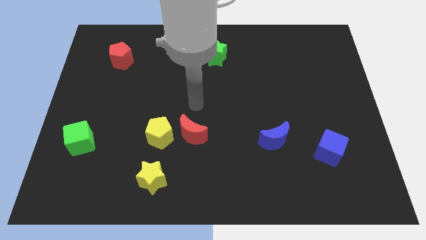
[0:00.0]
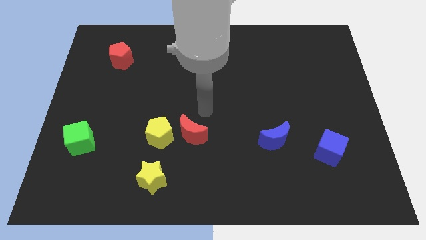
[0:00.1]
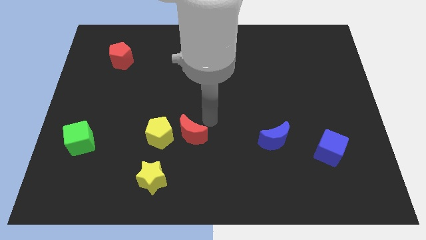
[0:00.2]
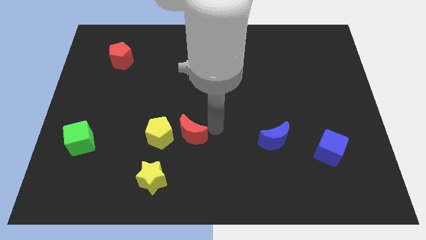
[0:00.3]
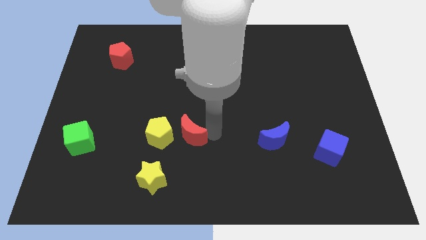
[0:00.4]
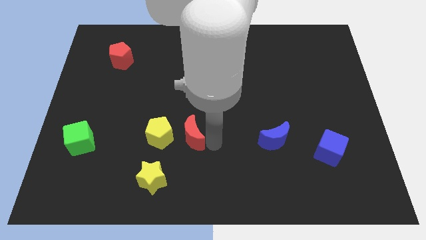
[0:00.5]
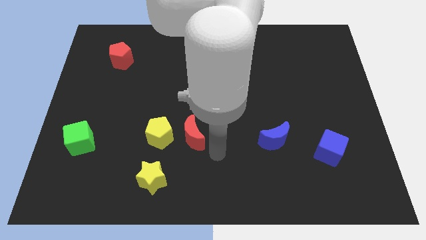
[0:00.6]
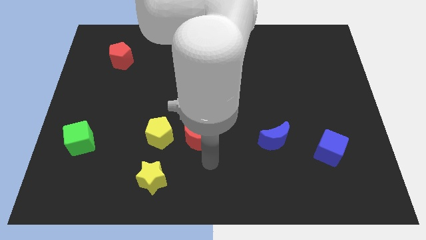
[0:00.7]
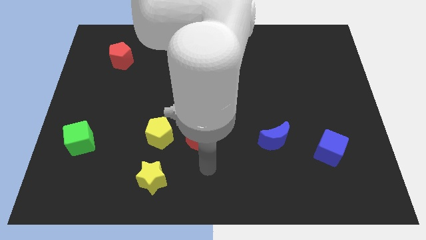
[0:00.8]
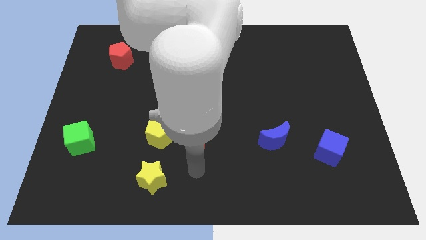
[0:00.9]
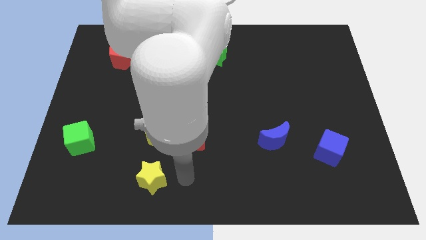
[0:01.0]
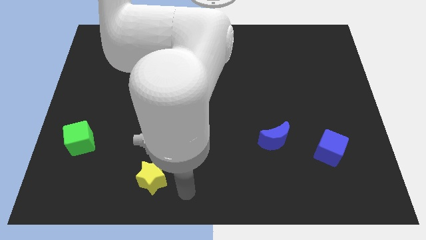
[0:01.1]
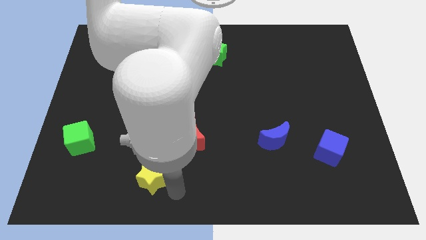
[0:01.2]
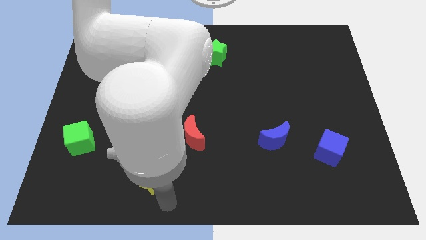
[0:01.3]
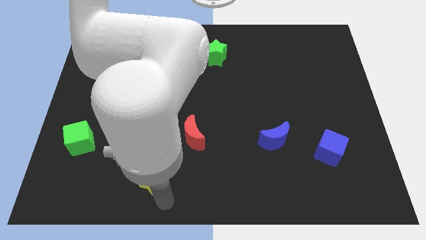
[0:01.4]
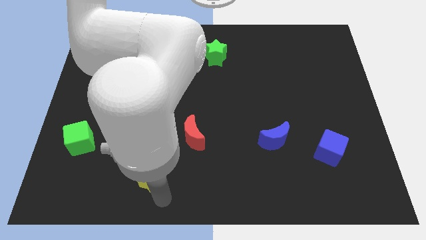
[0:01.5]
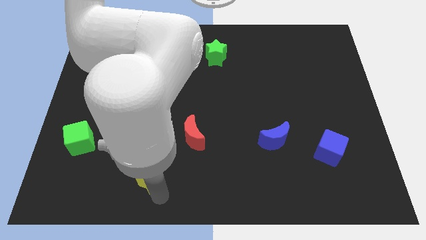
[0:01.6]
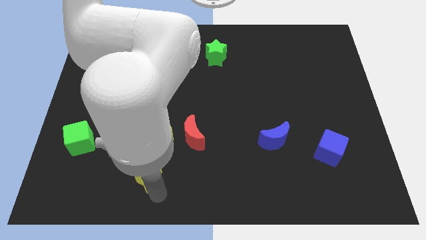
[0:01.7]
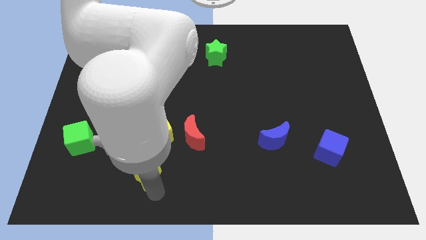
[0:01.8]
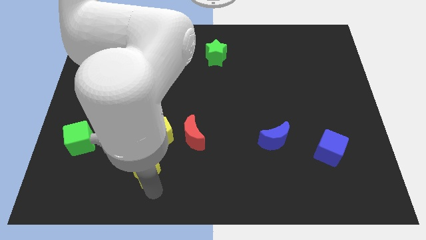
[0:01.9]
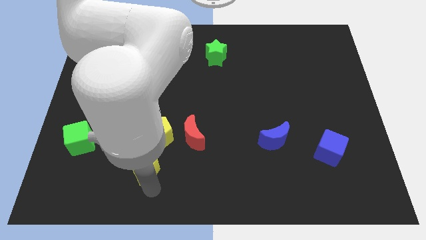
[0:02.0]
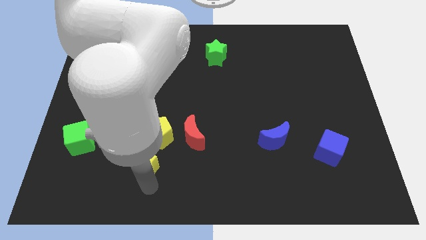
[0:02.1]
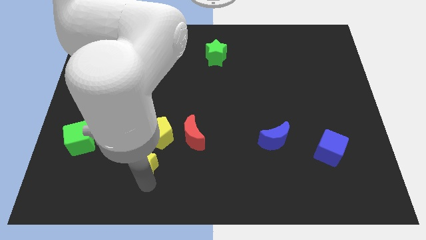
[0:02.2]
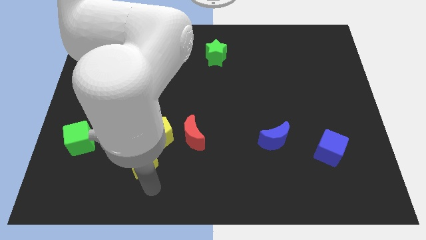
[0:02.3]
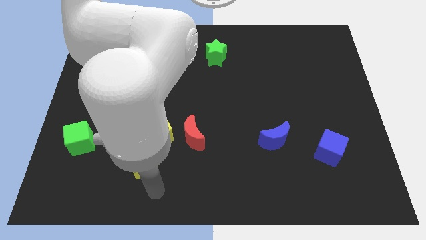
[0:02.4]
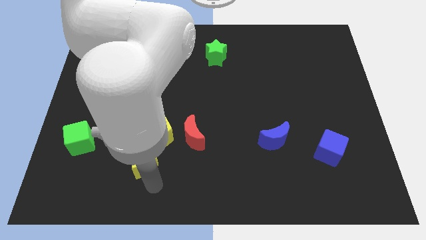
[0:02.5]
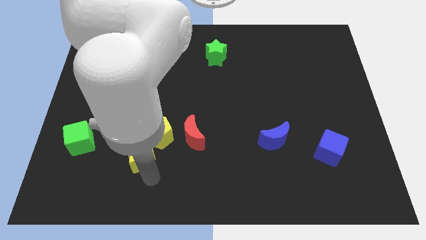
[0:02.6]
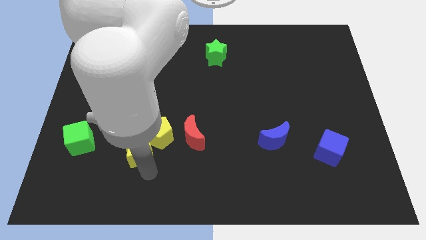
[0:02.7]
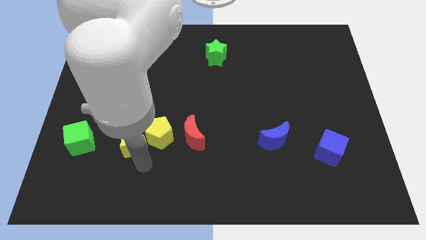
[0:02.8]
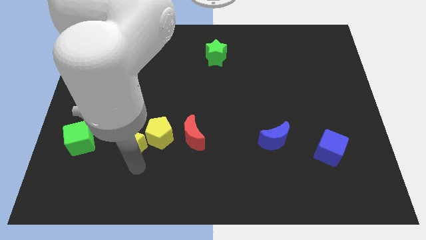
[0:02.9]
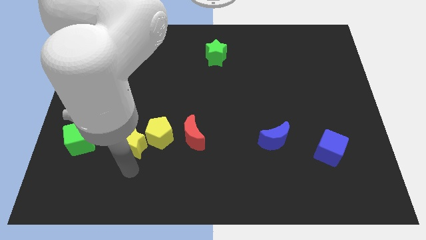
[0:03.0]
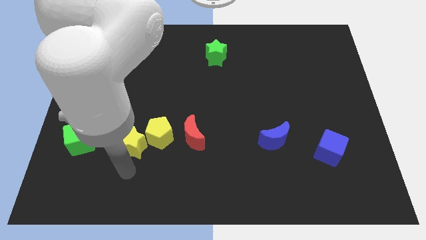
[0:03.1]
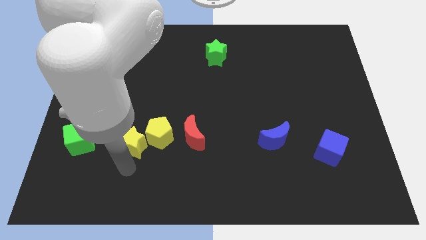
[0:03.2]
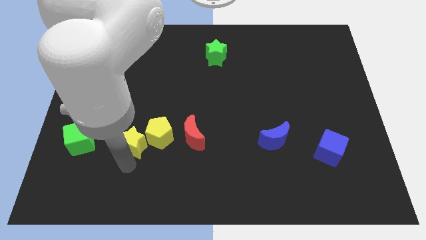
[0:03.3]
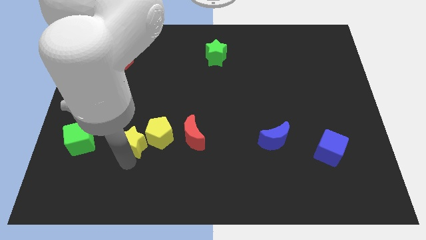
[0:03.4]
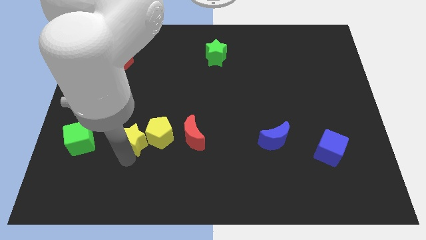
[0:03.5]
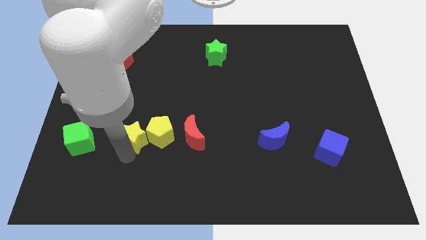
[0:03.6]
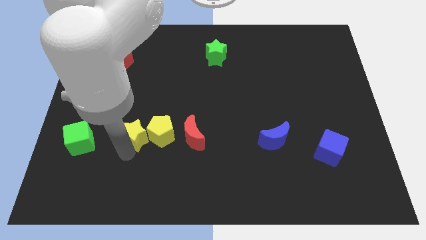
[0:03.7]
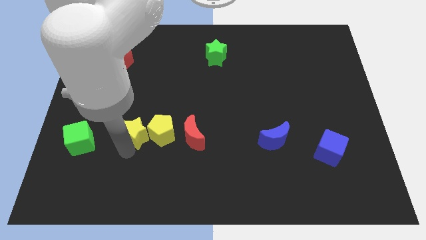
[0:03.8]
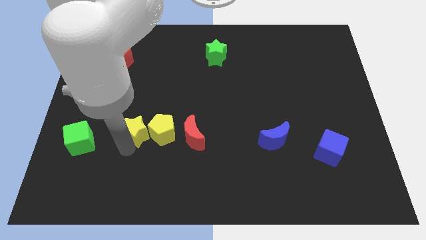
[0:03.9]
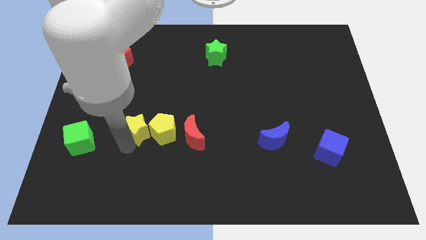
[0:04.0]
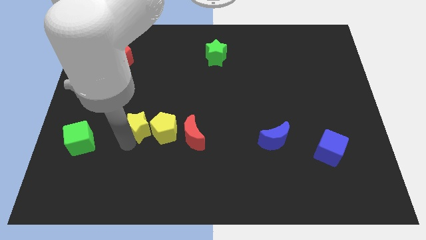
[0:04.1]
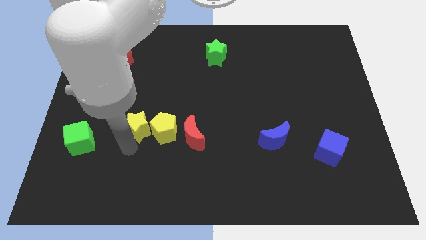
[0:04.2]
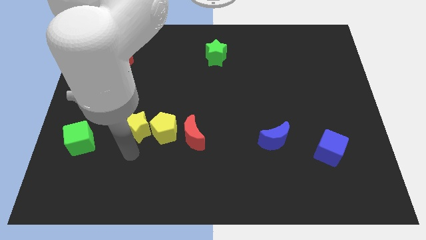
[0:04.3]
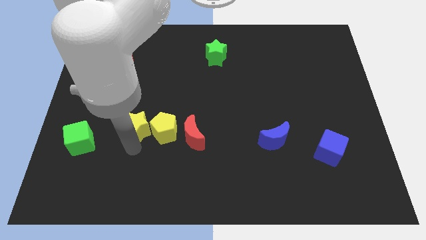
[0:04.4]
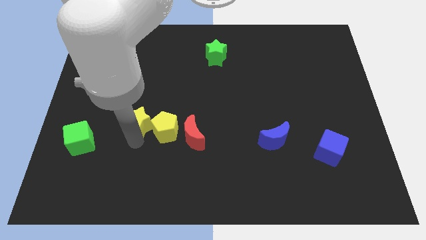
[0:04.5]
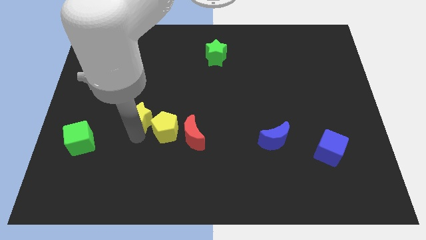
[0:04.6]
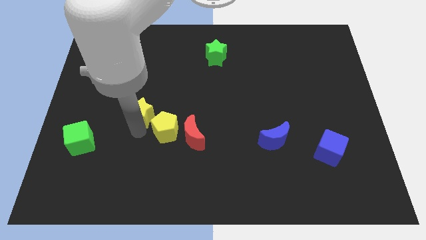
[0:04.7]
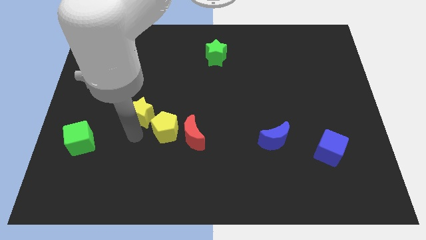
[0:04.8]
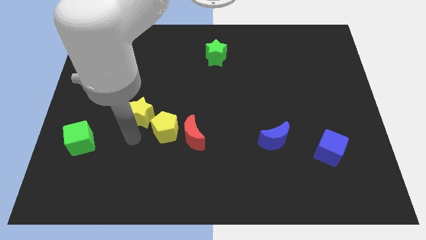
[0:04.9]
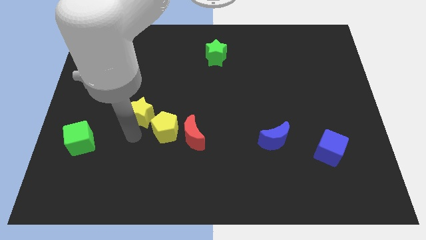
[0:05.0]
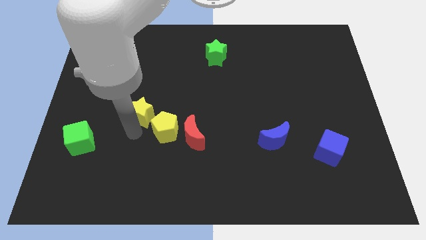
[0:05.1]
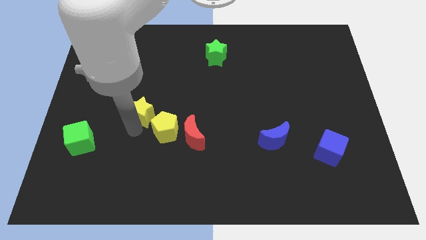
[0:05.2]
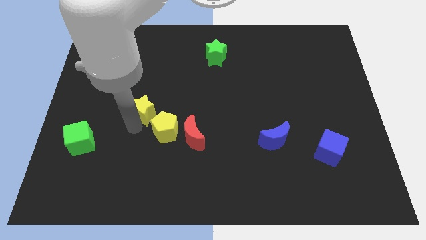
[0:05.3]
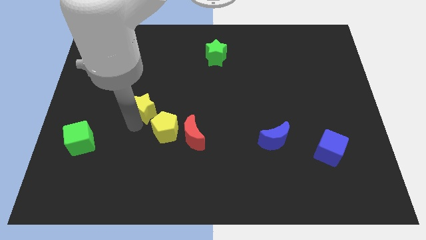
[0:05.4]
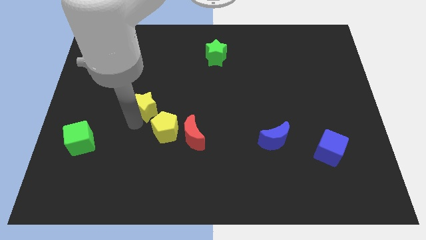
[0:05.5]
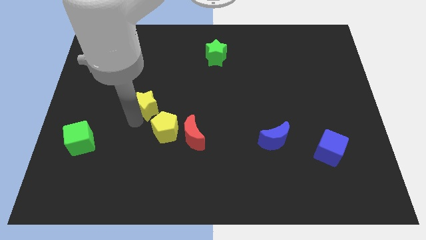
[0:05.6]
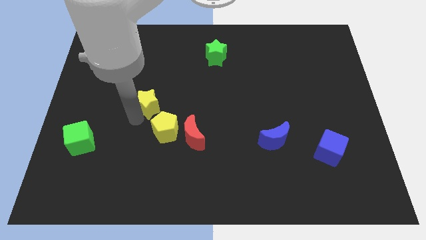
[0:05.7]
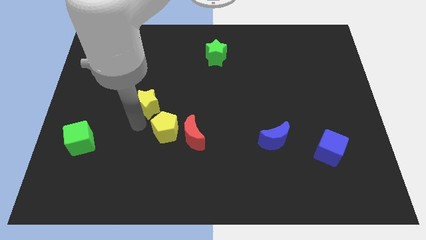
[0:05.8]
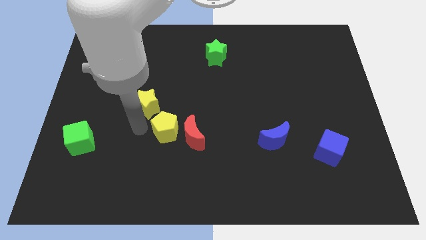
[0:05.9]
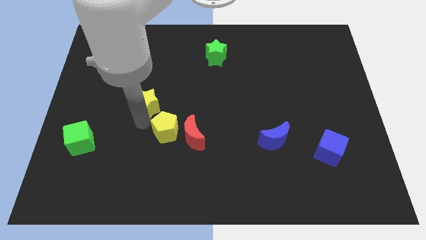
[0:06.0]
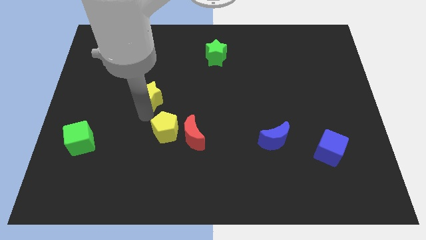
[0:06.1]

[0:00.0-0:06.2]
push the yellow star up

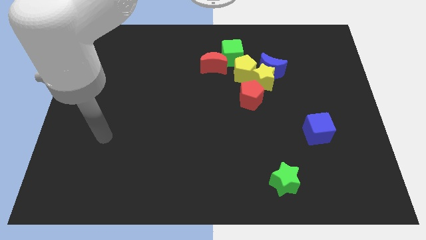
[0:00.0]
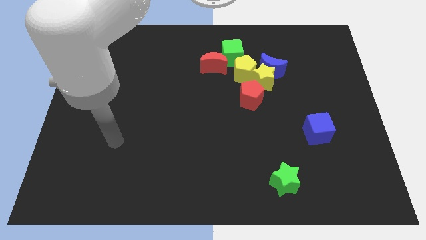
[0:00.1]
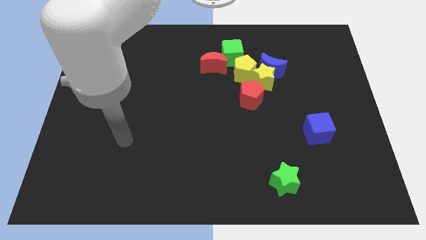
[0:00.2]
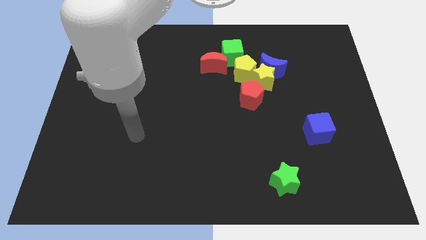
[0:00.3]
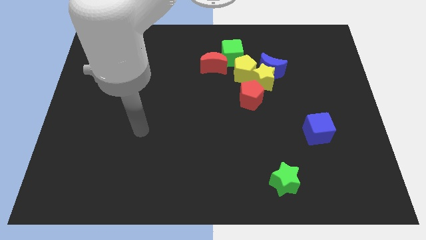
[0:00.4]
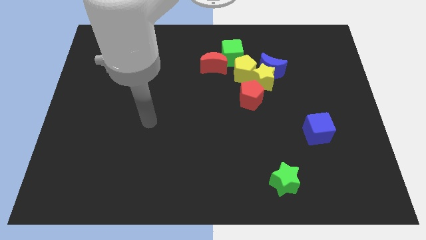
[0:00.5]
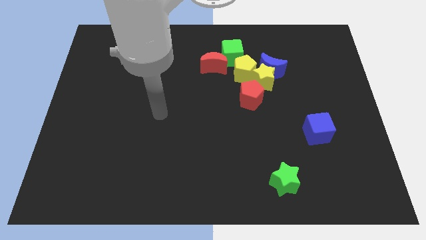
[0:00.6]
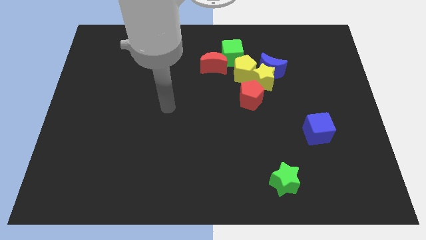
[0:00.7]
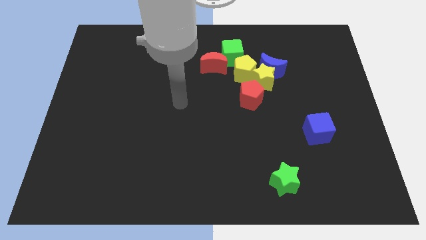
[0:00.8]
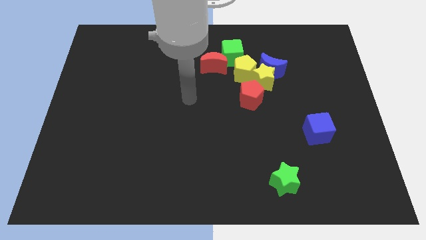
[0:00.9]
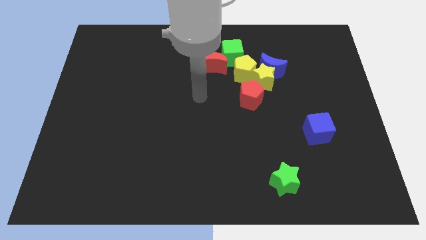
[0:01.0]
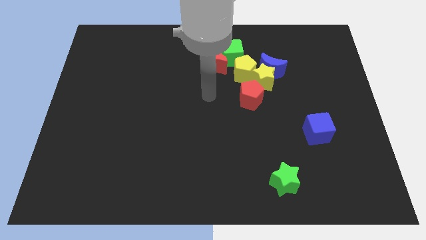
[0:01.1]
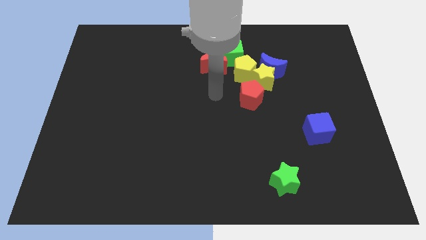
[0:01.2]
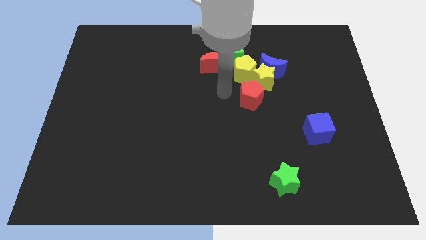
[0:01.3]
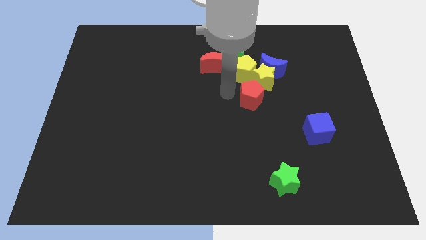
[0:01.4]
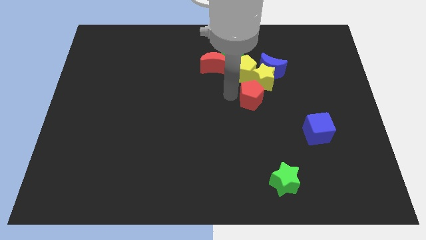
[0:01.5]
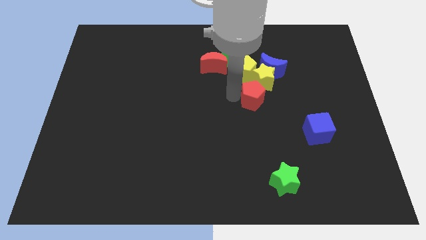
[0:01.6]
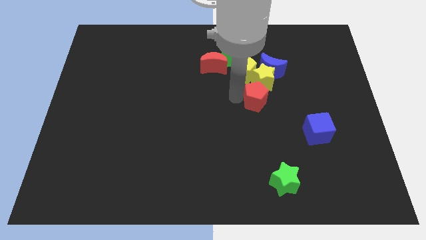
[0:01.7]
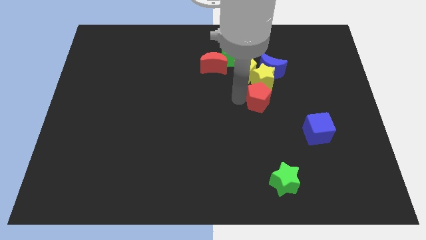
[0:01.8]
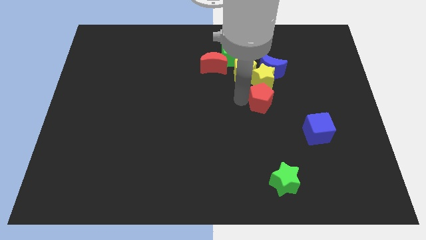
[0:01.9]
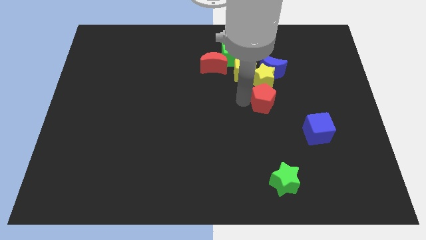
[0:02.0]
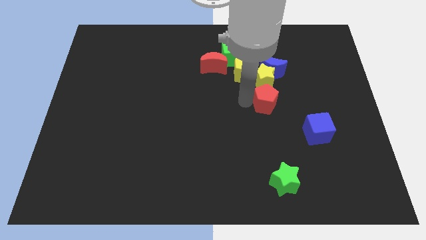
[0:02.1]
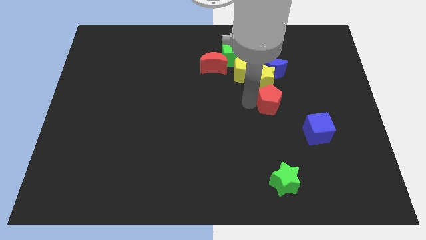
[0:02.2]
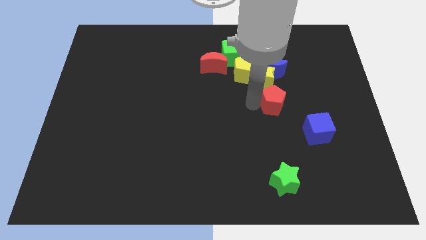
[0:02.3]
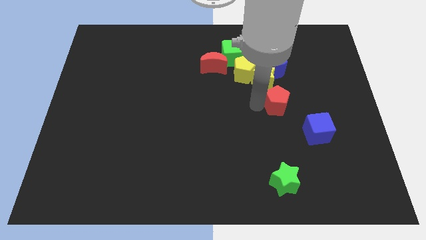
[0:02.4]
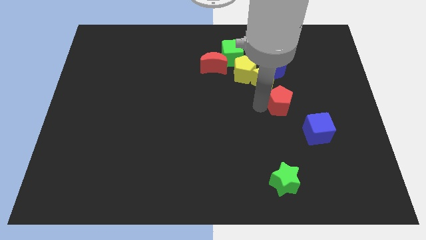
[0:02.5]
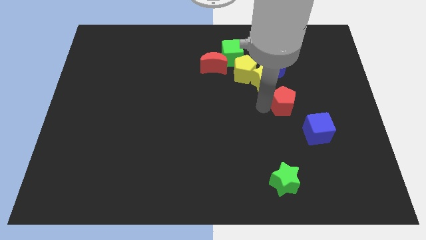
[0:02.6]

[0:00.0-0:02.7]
slightly slide the red pentagon to the right
